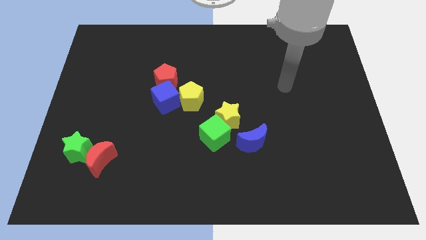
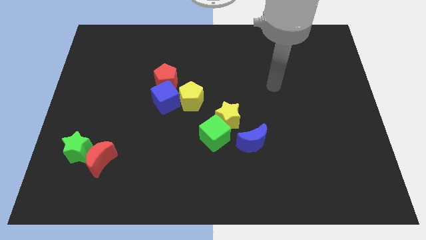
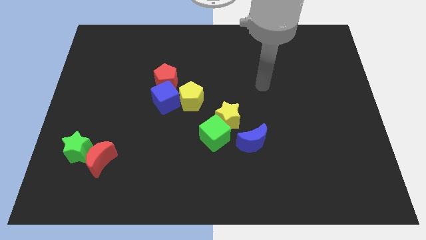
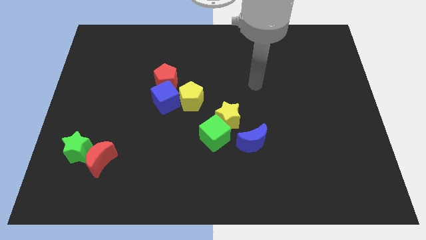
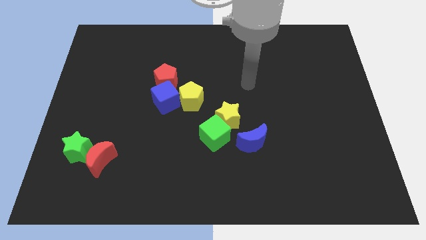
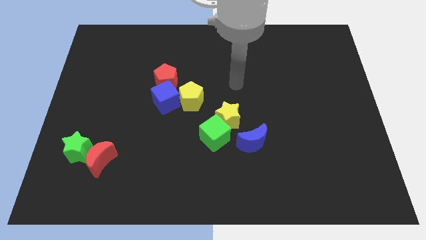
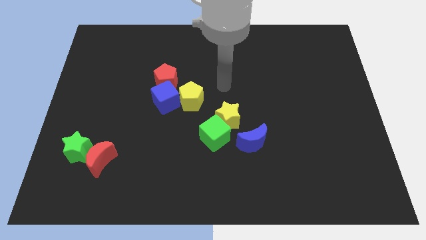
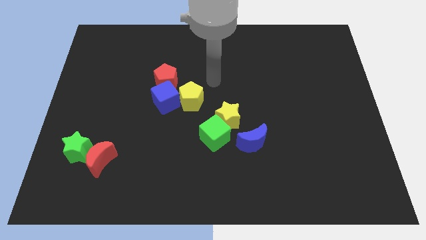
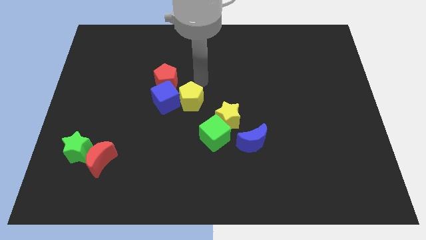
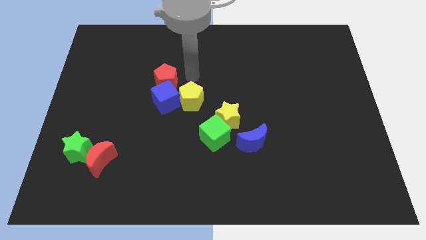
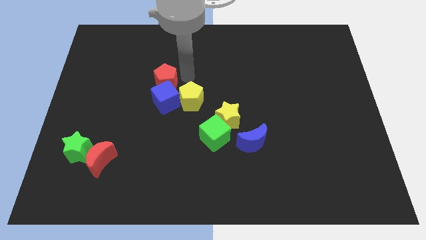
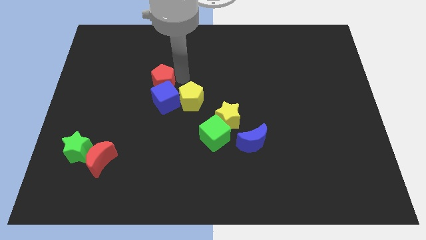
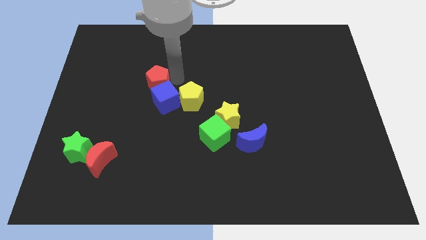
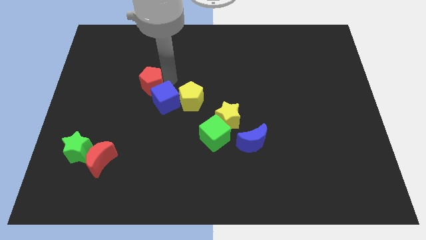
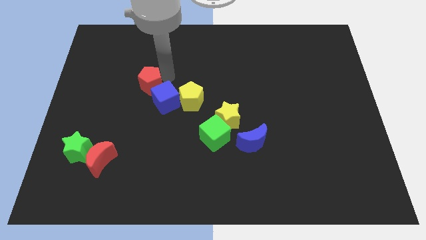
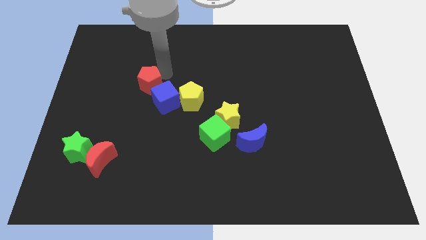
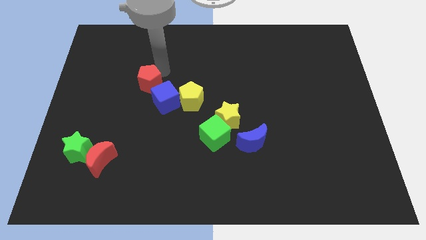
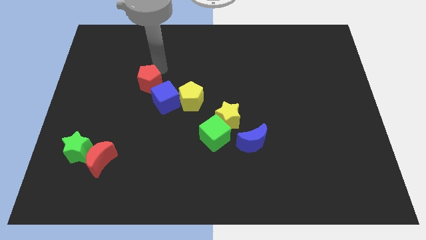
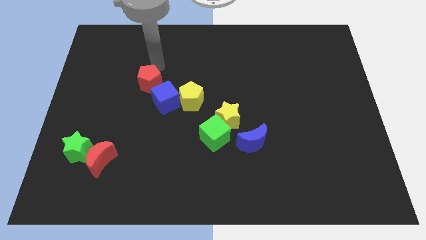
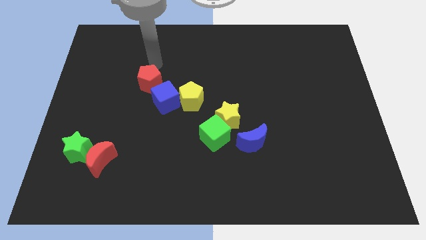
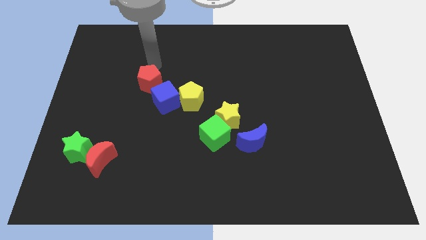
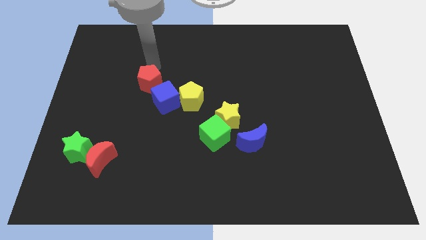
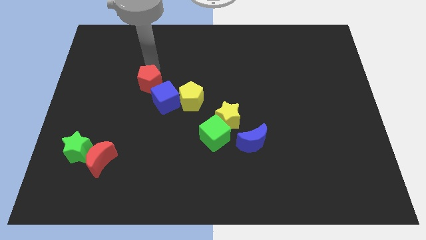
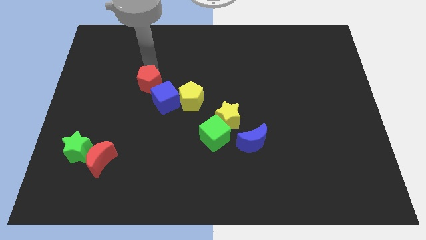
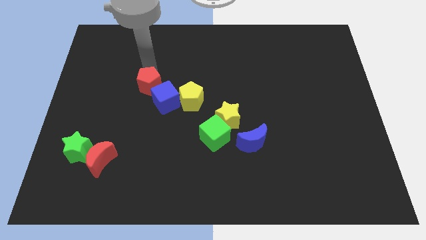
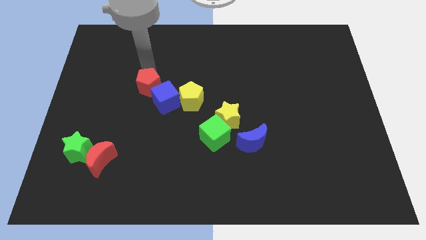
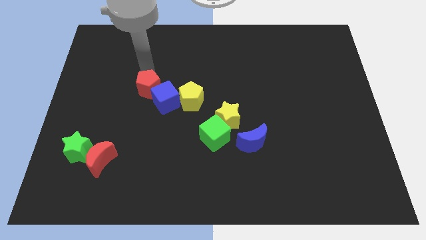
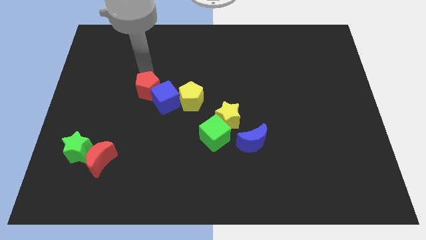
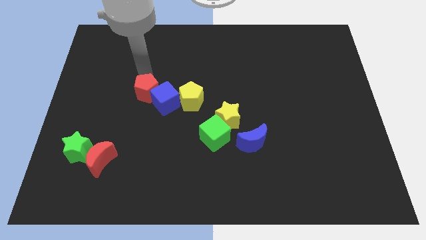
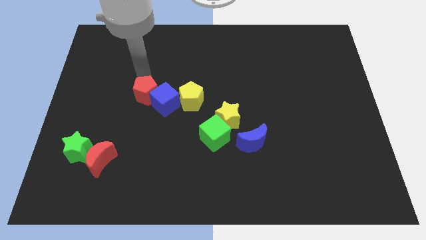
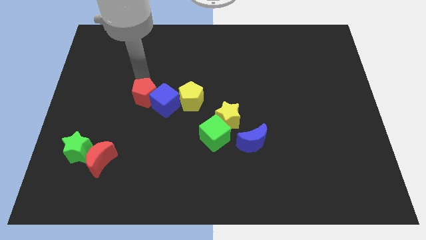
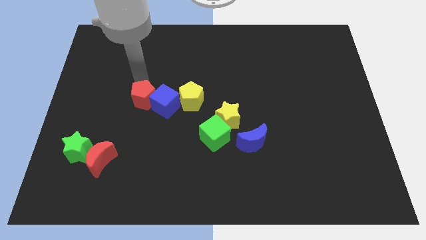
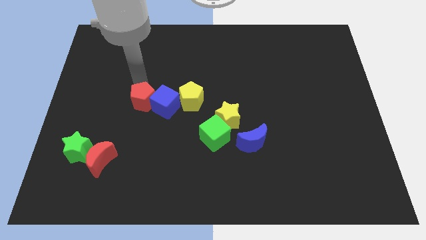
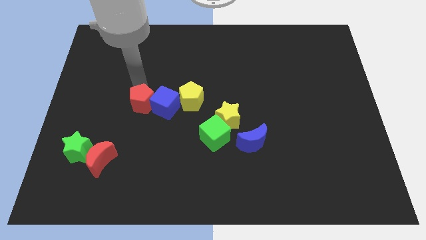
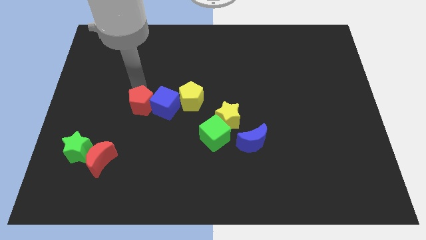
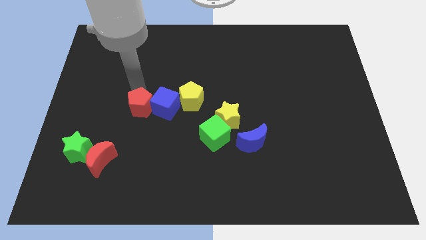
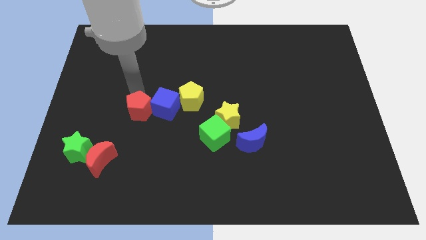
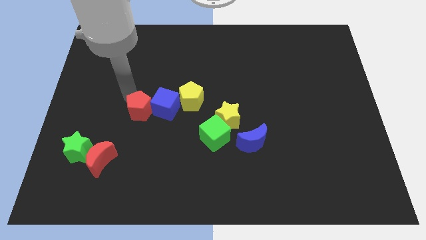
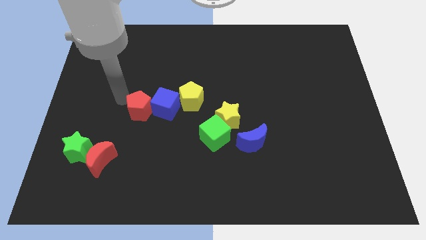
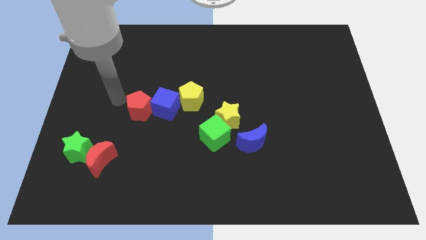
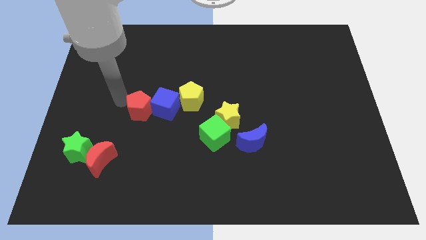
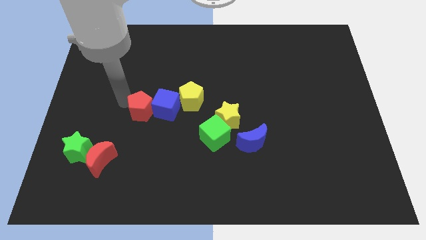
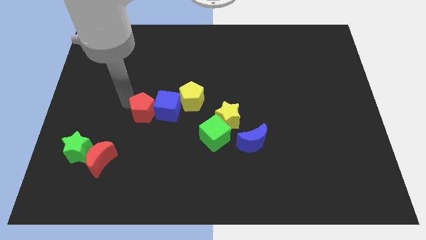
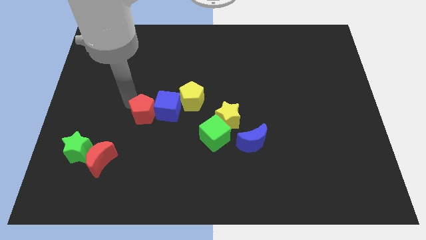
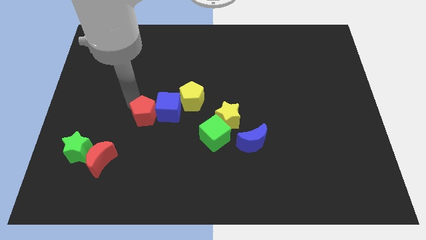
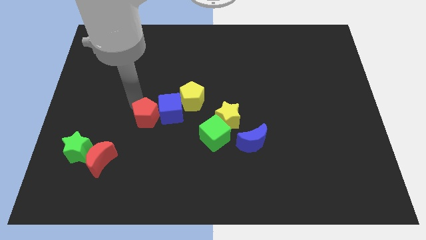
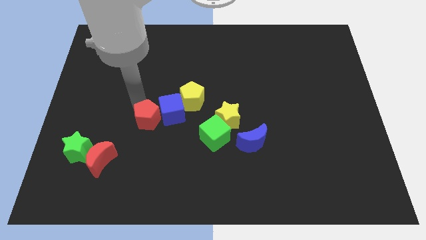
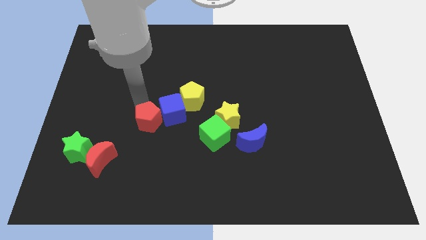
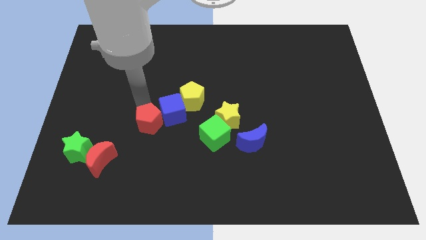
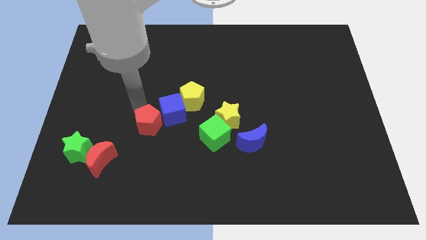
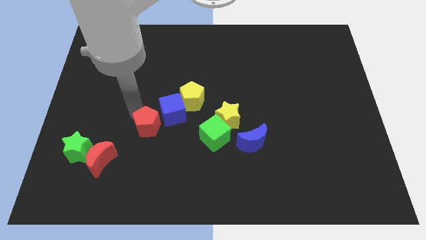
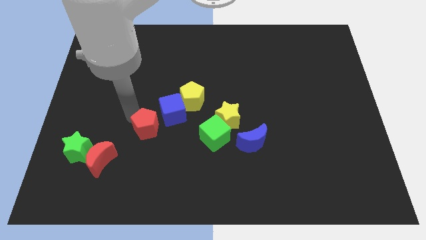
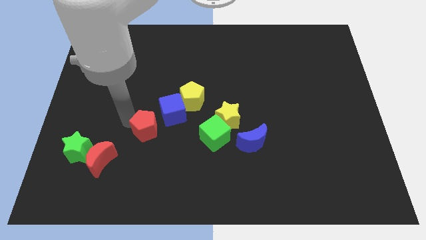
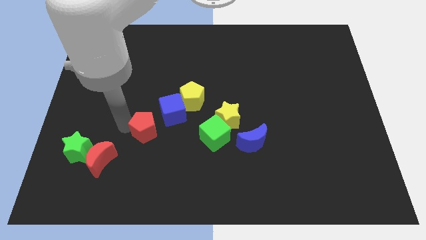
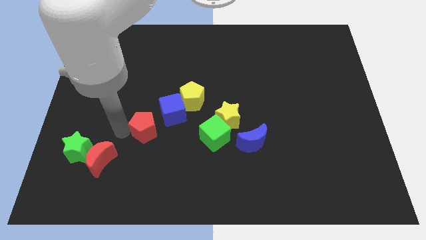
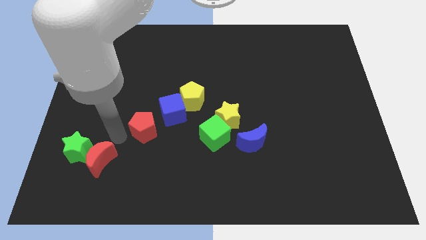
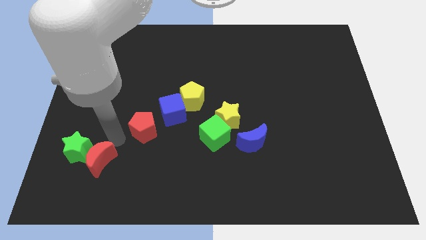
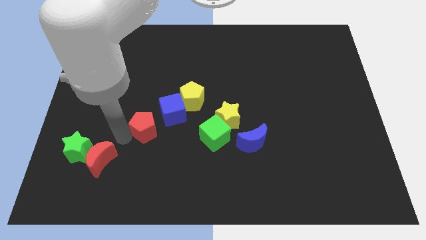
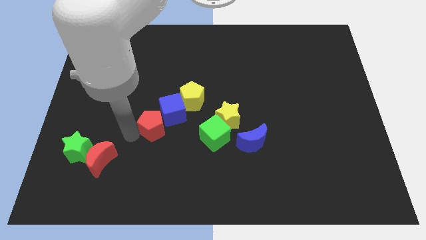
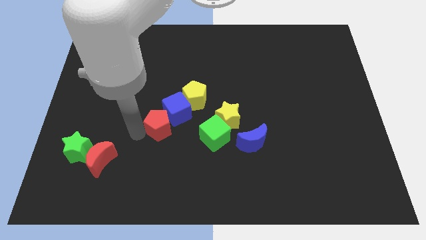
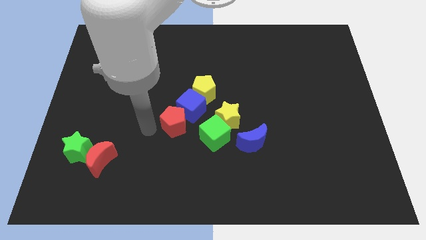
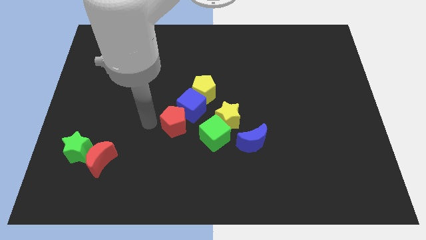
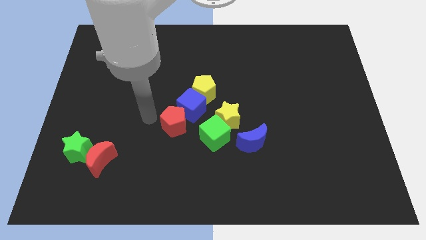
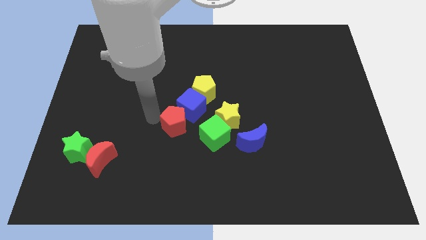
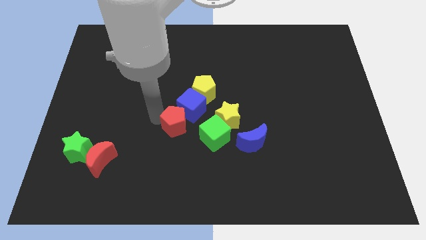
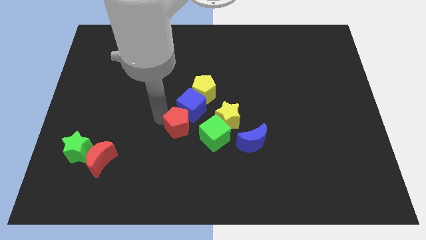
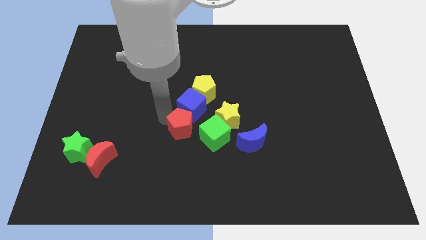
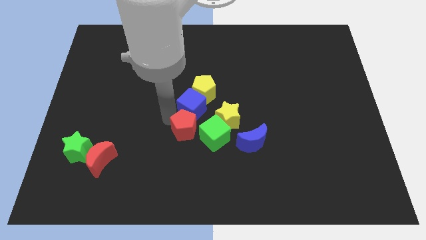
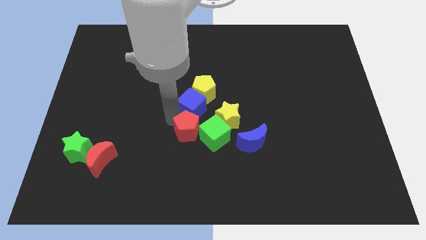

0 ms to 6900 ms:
push the red pentagon towards the green cube
